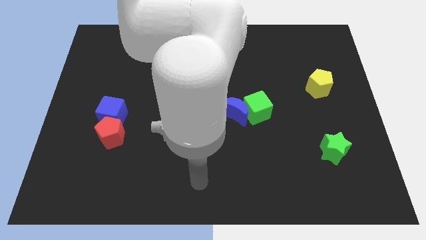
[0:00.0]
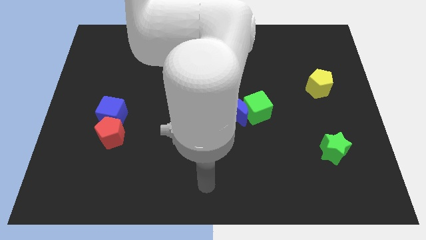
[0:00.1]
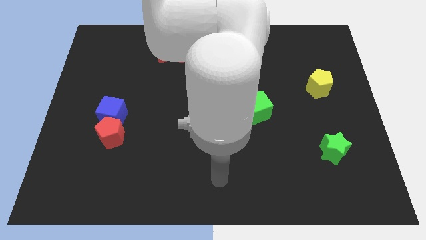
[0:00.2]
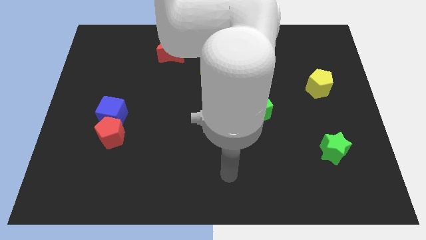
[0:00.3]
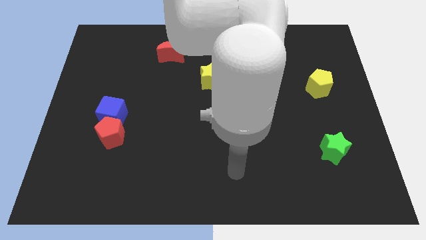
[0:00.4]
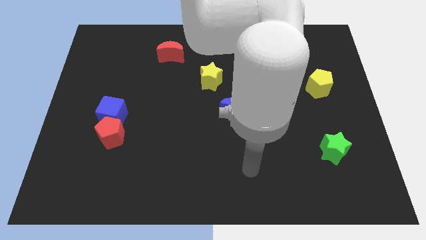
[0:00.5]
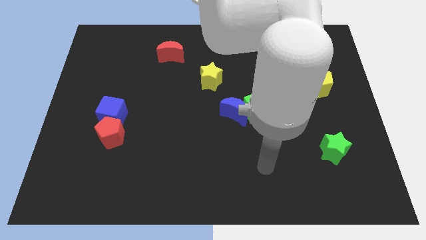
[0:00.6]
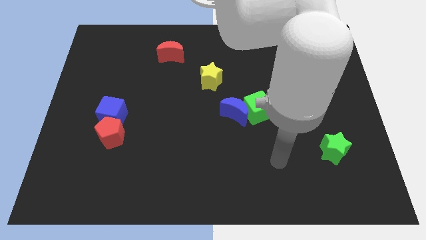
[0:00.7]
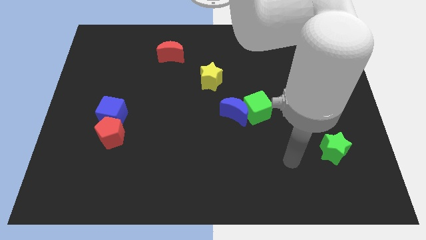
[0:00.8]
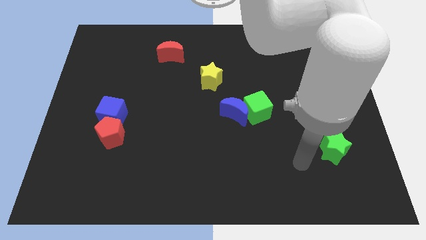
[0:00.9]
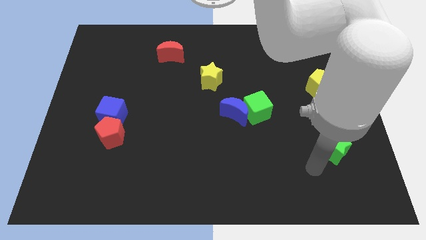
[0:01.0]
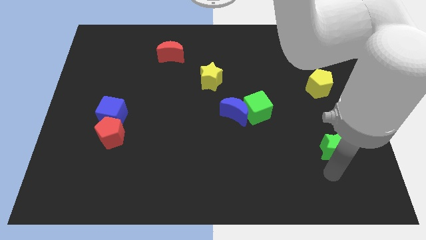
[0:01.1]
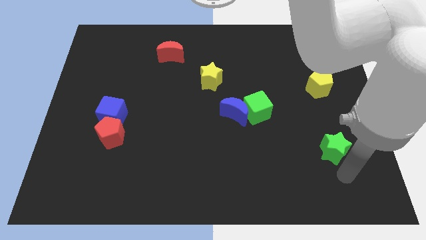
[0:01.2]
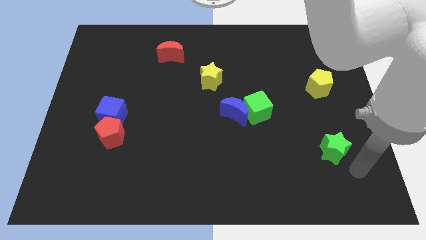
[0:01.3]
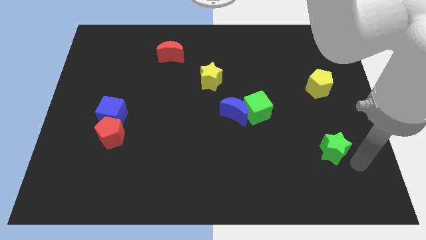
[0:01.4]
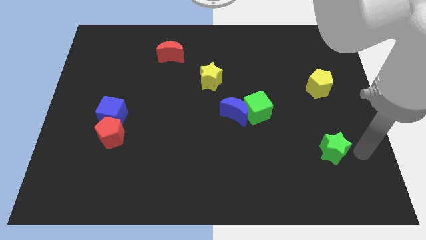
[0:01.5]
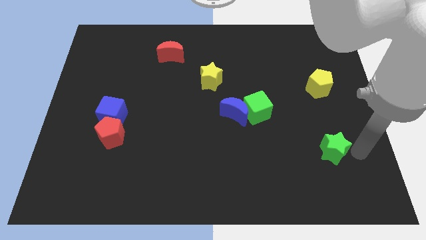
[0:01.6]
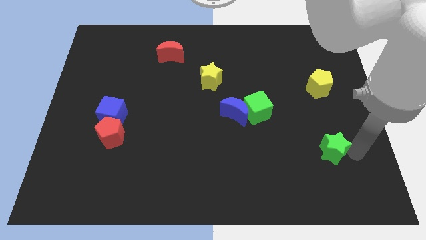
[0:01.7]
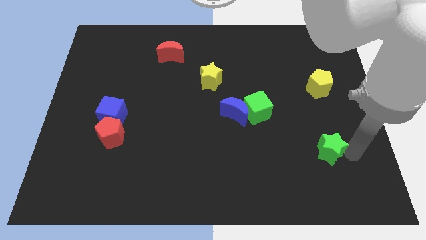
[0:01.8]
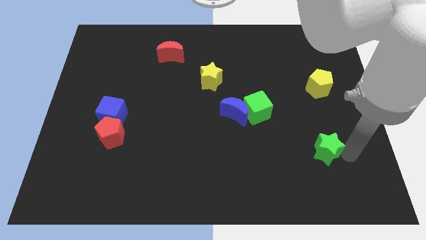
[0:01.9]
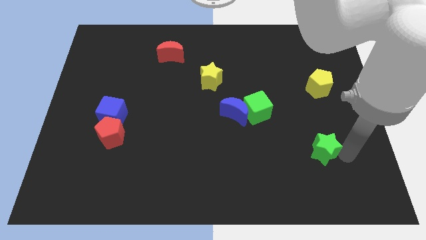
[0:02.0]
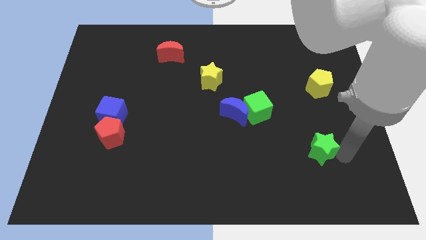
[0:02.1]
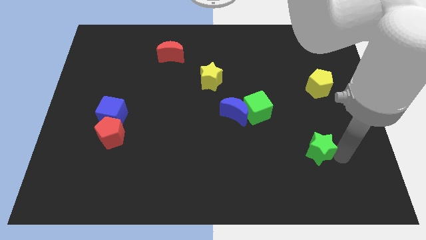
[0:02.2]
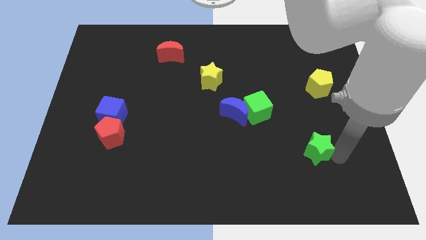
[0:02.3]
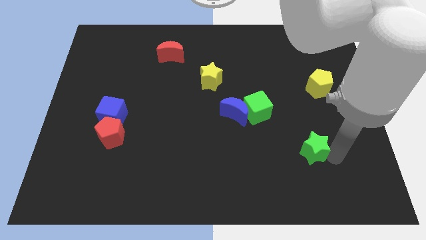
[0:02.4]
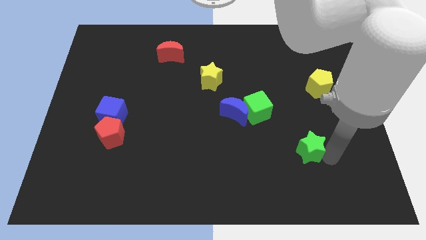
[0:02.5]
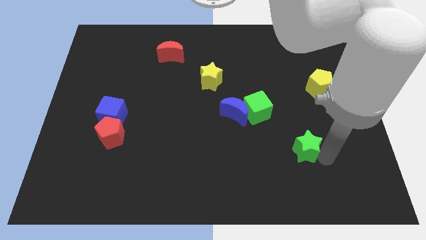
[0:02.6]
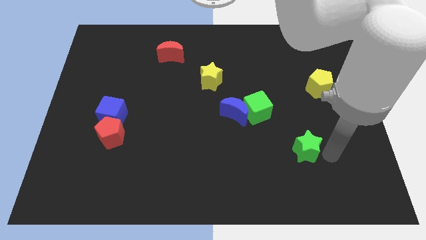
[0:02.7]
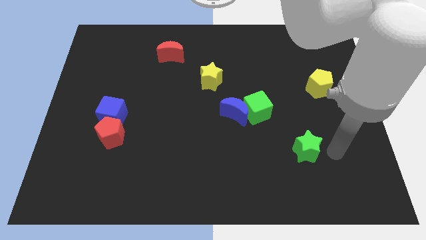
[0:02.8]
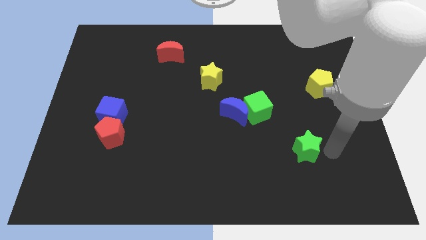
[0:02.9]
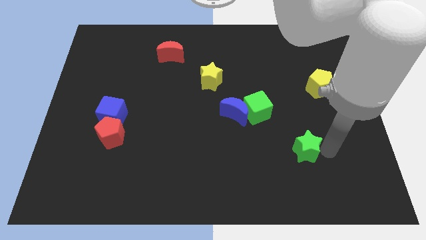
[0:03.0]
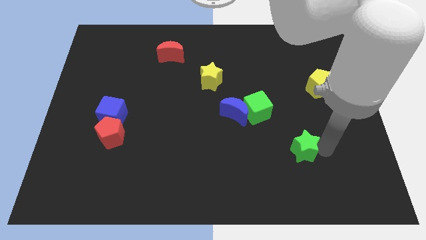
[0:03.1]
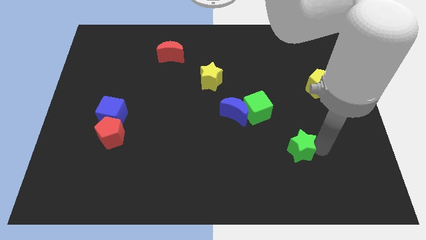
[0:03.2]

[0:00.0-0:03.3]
push the green star left a little bit

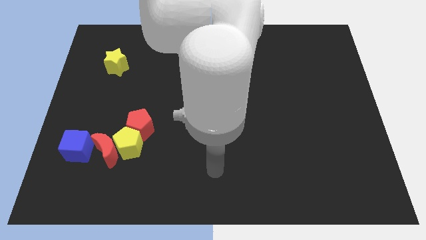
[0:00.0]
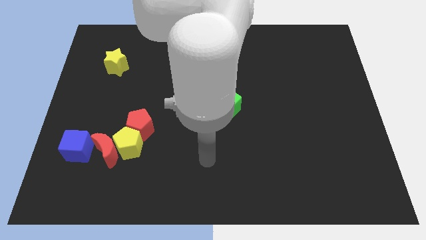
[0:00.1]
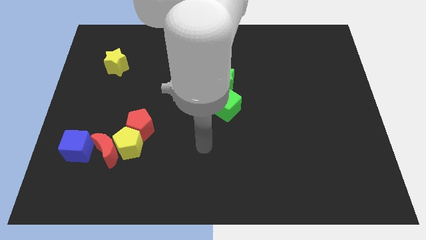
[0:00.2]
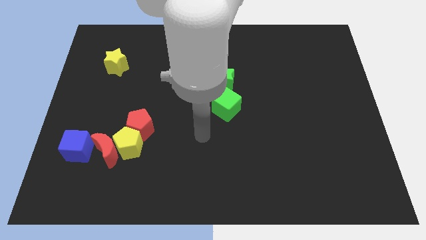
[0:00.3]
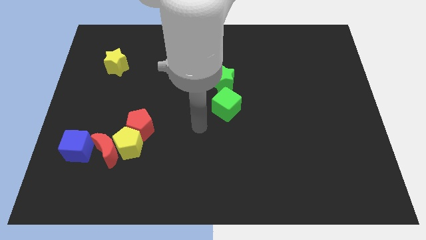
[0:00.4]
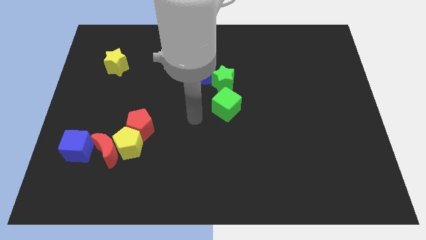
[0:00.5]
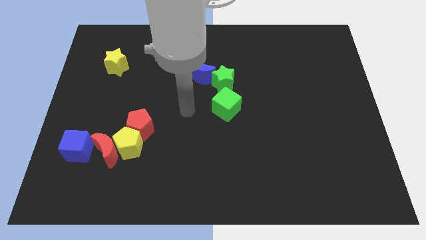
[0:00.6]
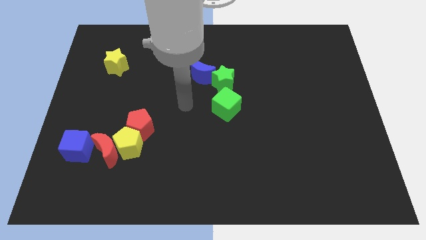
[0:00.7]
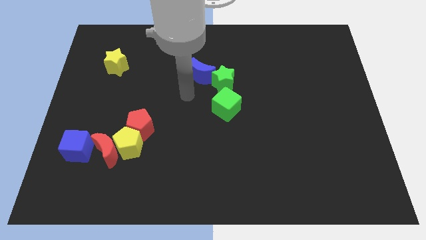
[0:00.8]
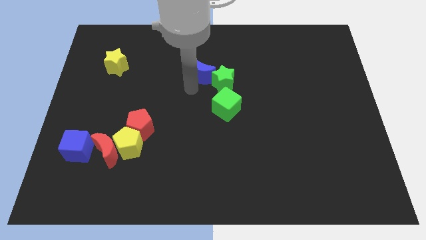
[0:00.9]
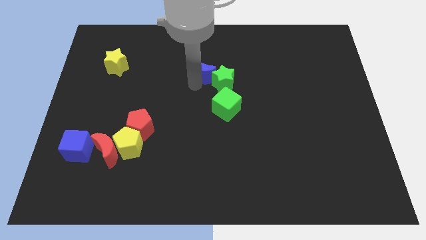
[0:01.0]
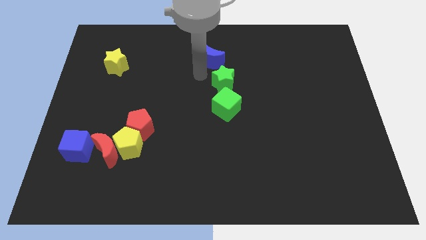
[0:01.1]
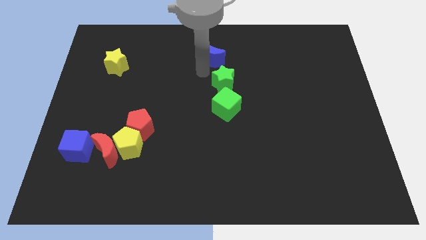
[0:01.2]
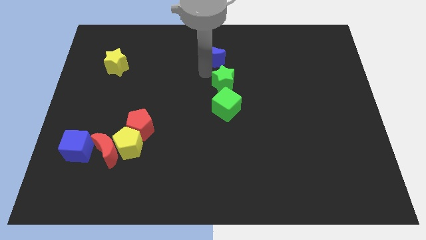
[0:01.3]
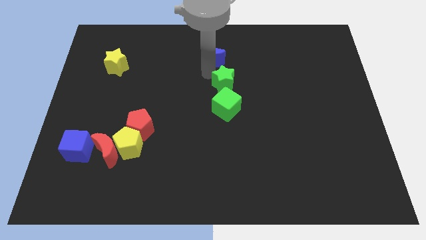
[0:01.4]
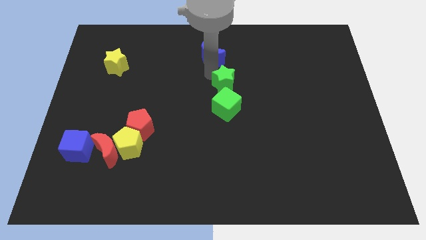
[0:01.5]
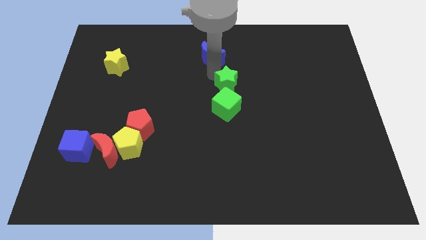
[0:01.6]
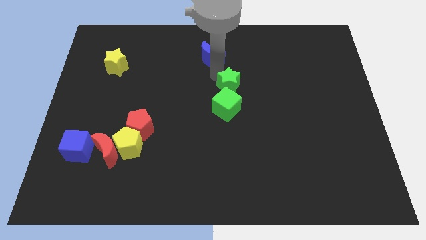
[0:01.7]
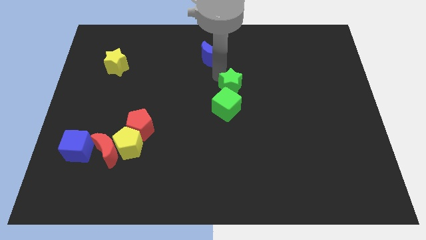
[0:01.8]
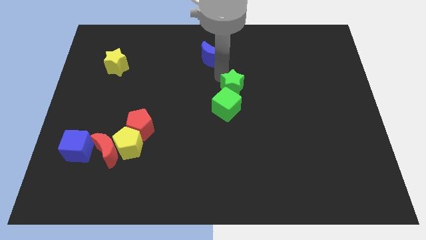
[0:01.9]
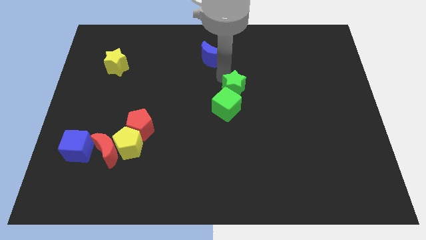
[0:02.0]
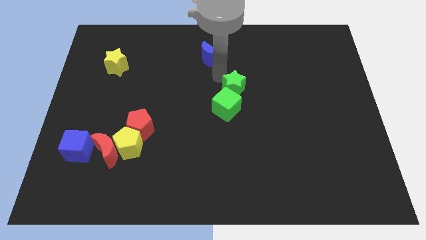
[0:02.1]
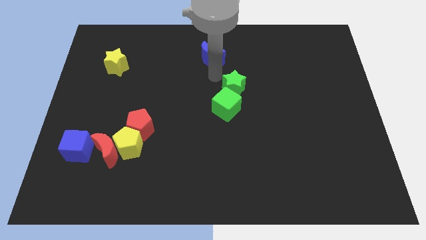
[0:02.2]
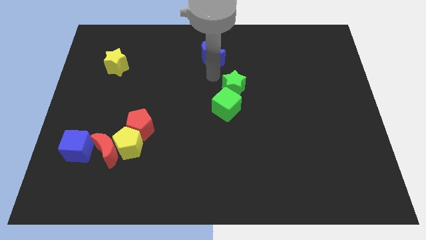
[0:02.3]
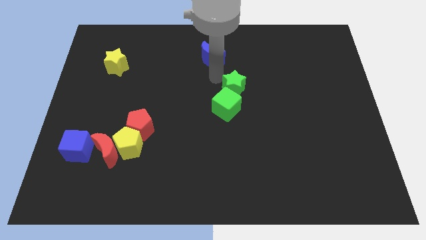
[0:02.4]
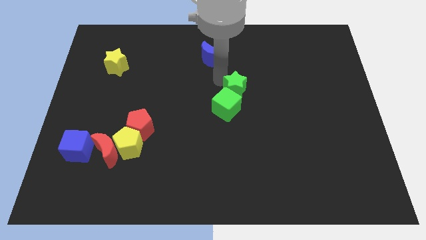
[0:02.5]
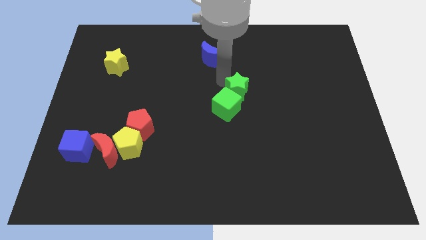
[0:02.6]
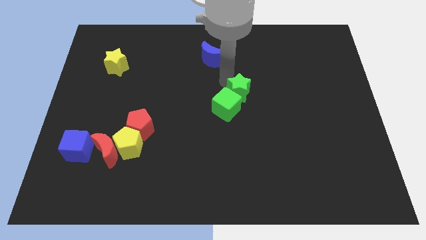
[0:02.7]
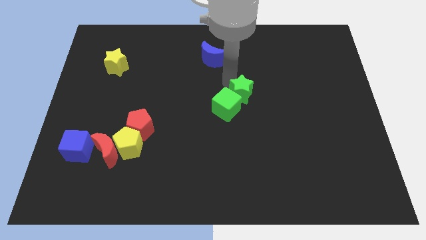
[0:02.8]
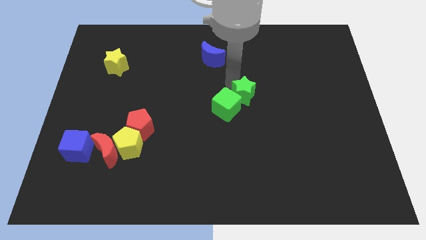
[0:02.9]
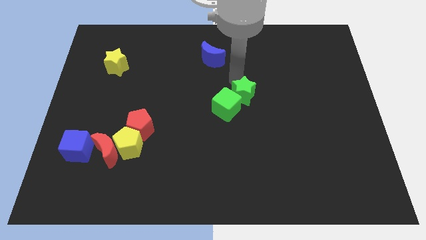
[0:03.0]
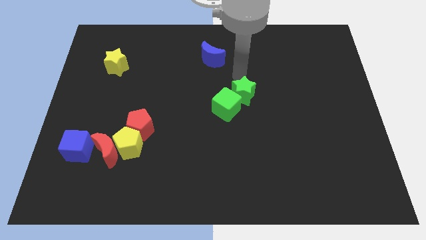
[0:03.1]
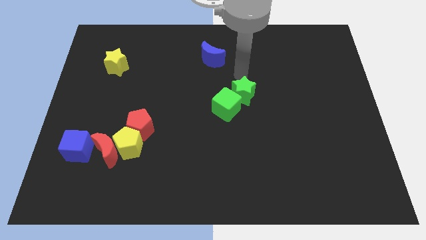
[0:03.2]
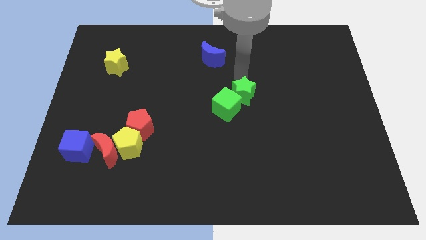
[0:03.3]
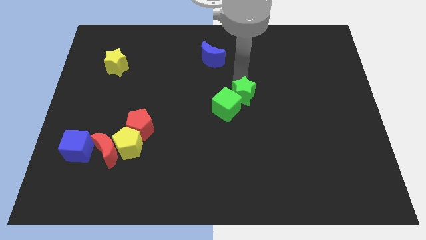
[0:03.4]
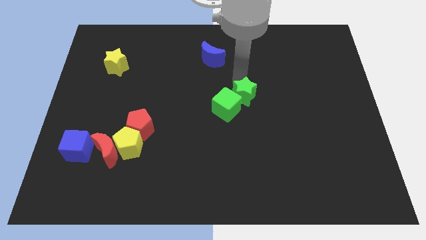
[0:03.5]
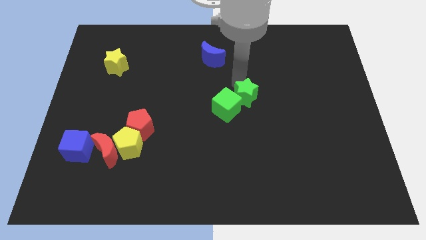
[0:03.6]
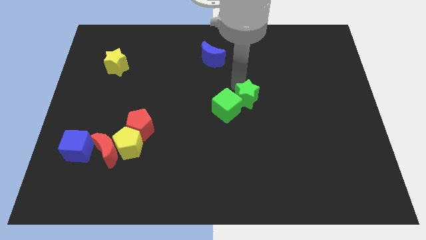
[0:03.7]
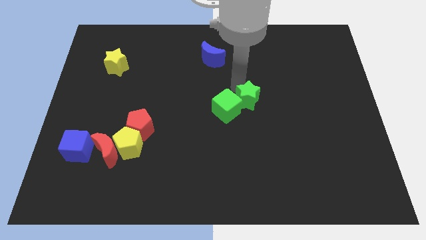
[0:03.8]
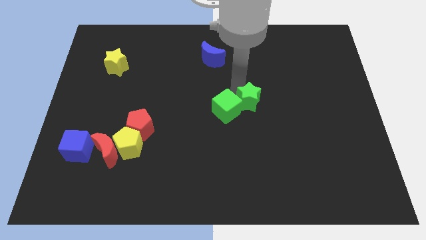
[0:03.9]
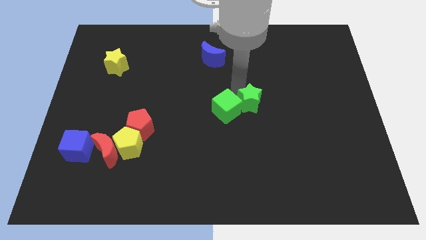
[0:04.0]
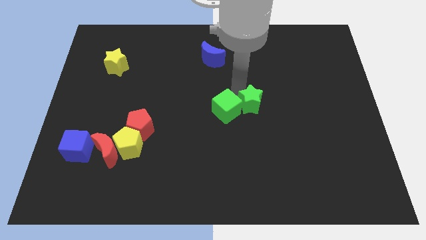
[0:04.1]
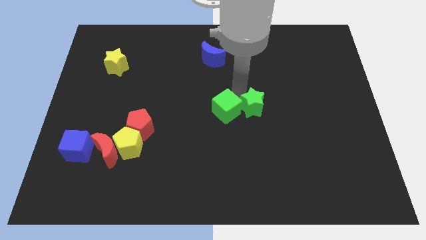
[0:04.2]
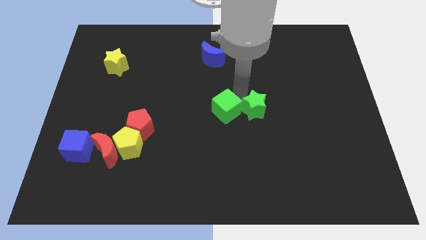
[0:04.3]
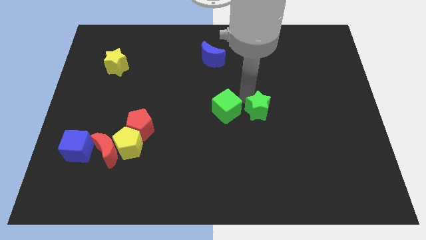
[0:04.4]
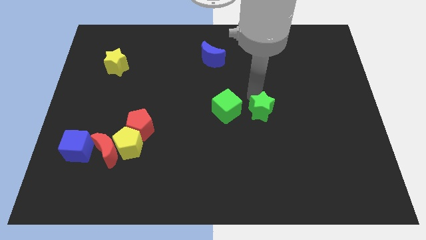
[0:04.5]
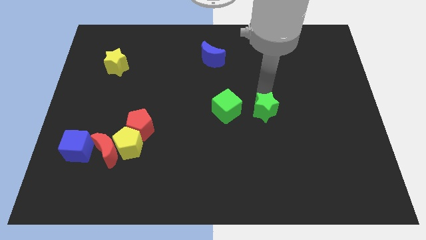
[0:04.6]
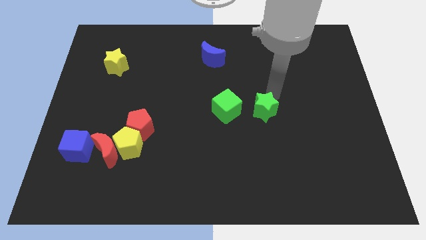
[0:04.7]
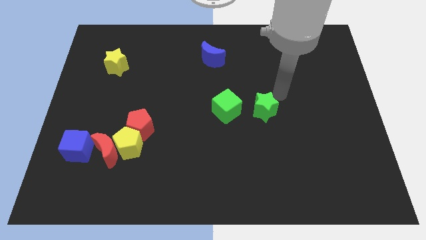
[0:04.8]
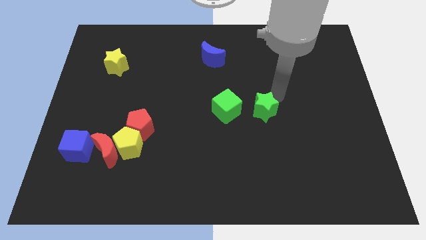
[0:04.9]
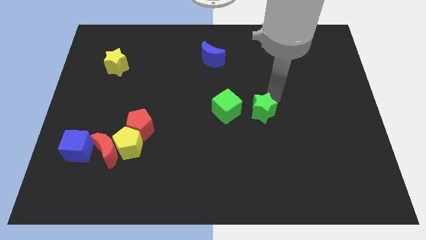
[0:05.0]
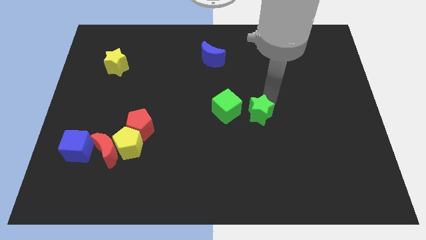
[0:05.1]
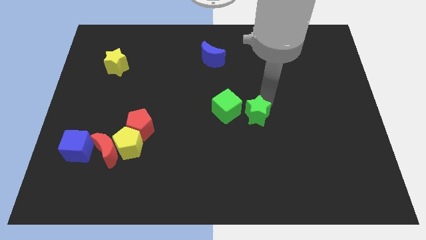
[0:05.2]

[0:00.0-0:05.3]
slide the green star a little downwards
